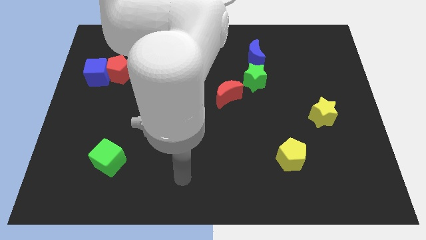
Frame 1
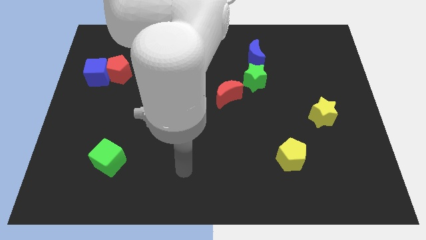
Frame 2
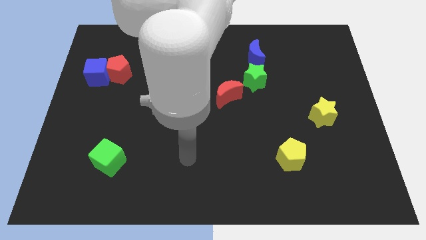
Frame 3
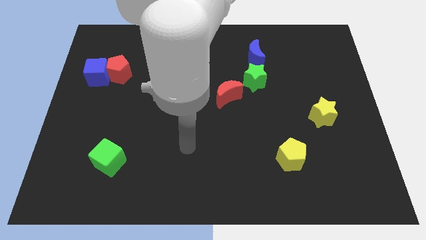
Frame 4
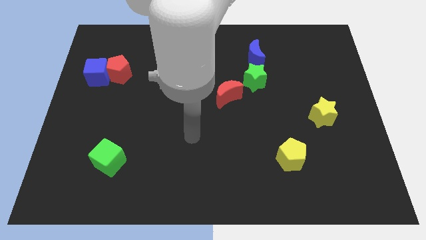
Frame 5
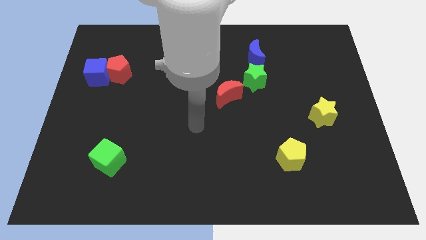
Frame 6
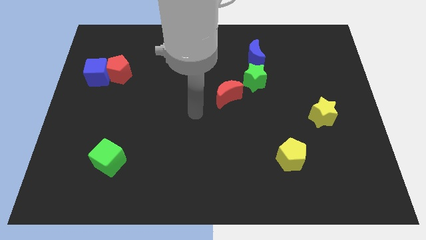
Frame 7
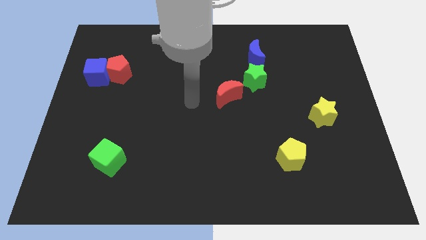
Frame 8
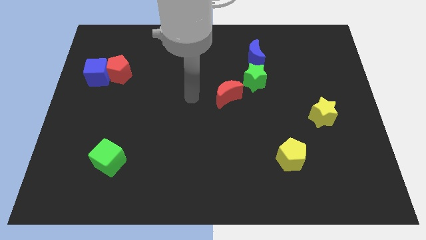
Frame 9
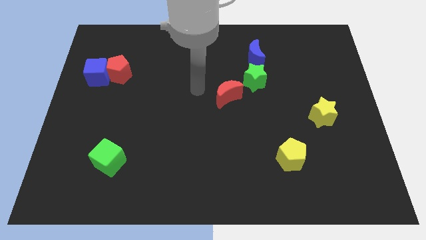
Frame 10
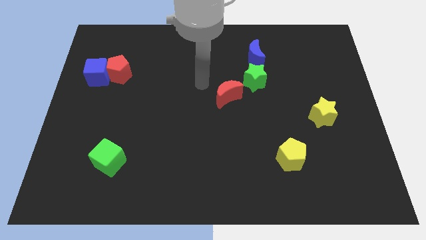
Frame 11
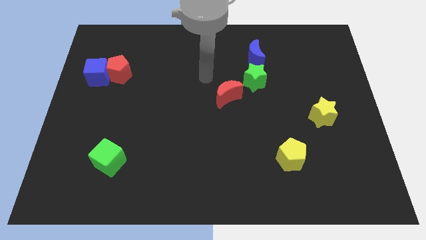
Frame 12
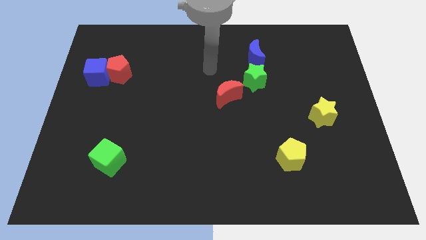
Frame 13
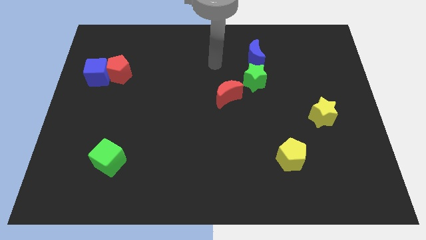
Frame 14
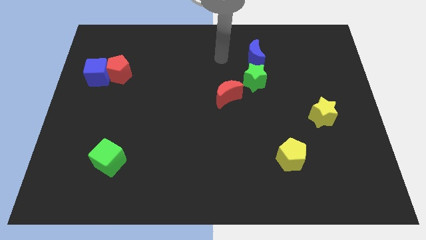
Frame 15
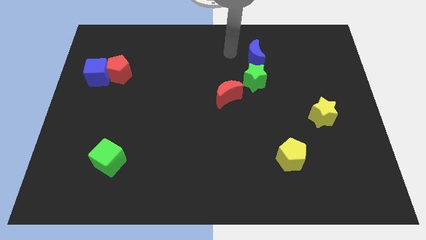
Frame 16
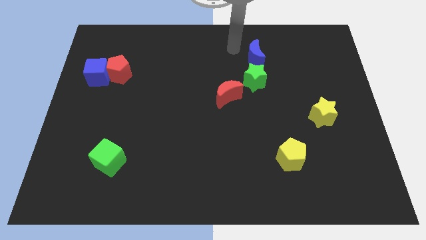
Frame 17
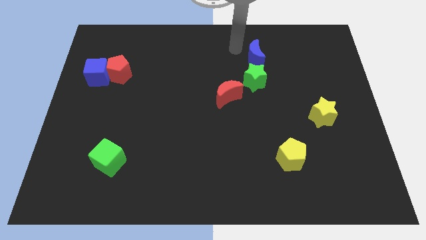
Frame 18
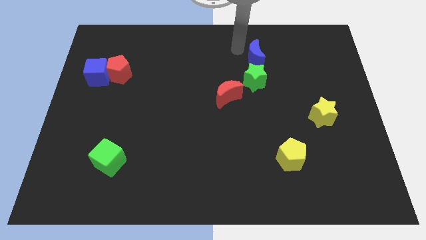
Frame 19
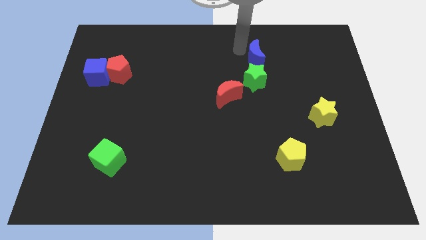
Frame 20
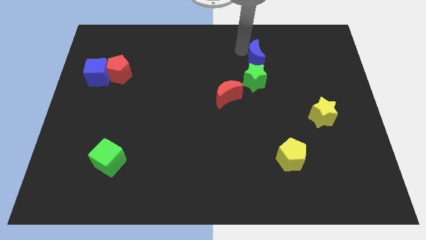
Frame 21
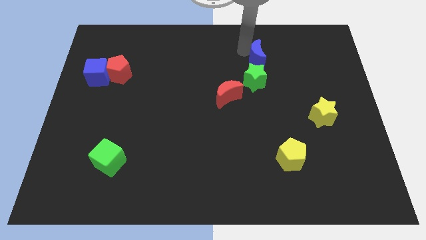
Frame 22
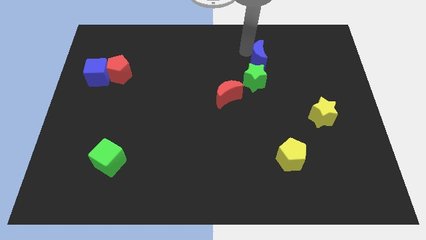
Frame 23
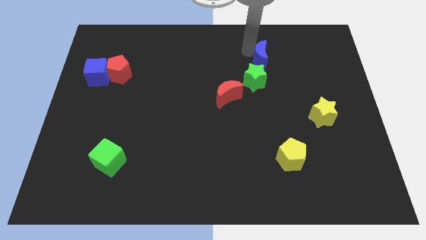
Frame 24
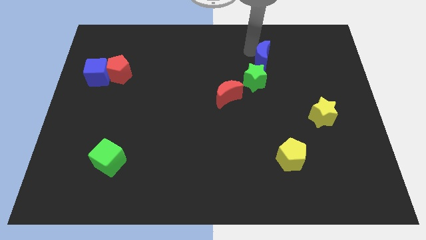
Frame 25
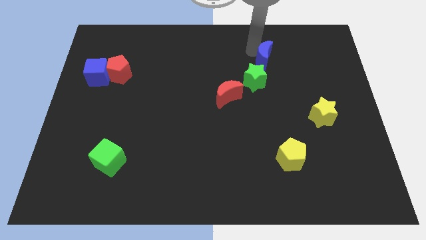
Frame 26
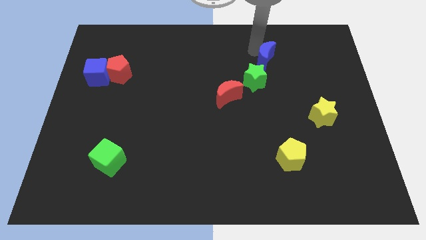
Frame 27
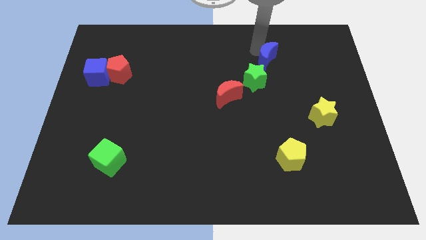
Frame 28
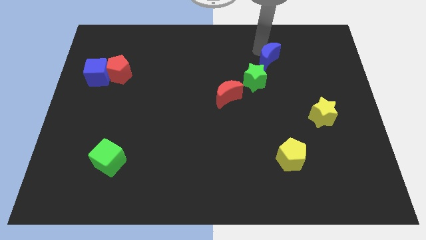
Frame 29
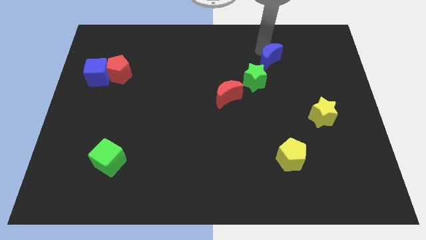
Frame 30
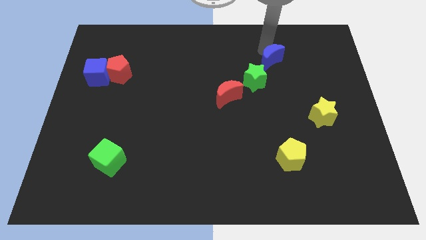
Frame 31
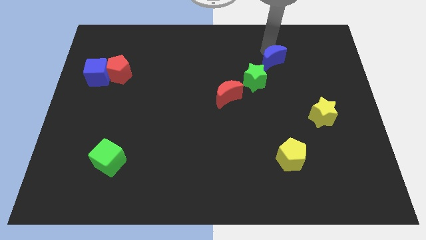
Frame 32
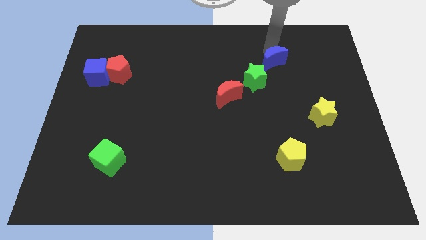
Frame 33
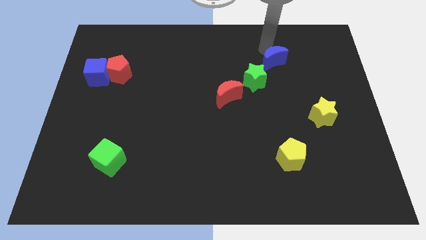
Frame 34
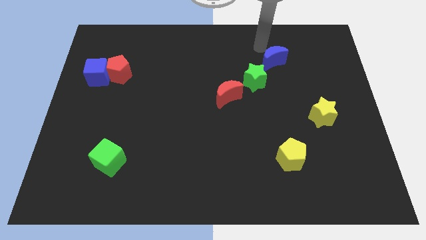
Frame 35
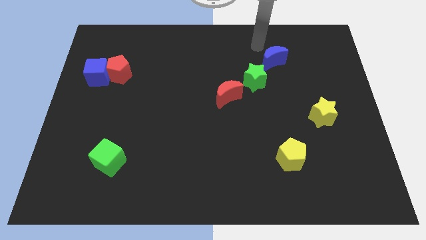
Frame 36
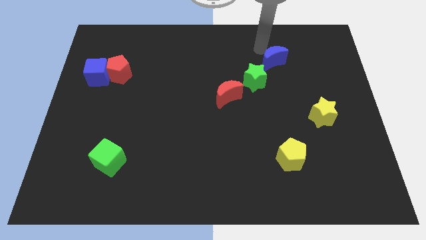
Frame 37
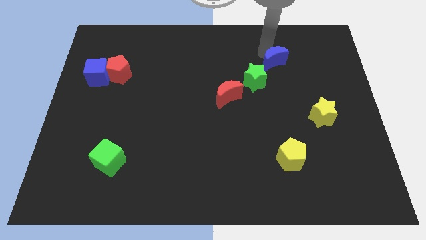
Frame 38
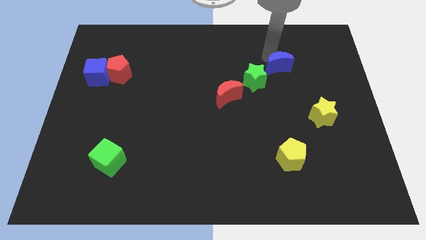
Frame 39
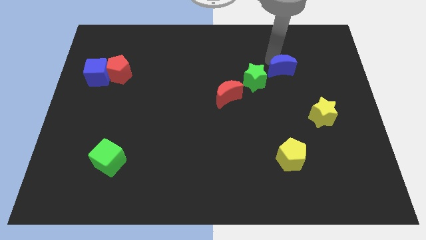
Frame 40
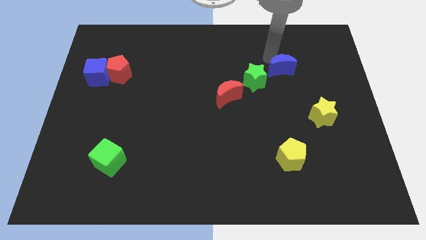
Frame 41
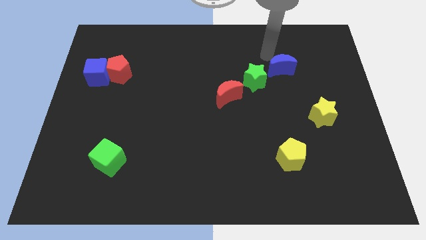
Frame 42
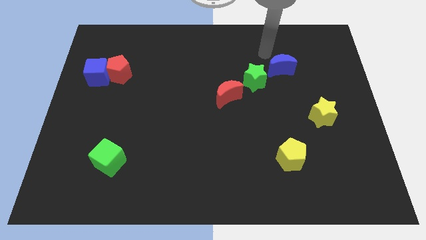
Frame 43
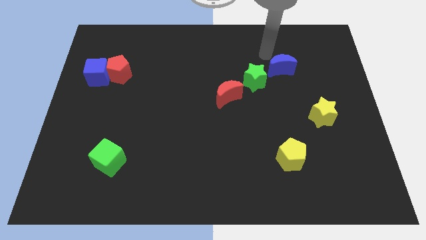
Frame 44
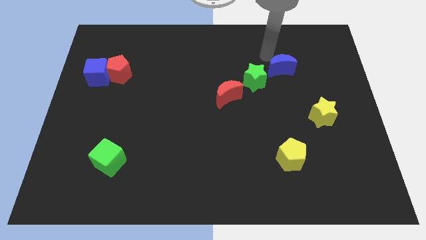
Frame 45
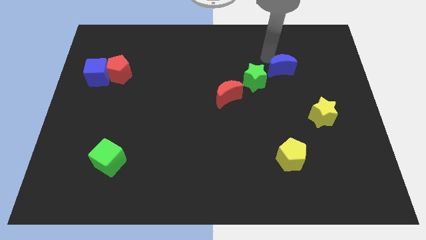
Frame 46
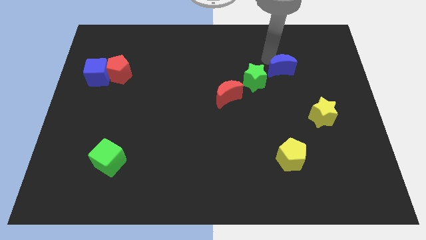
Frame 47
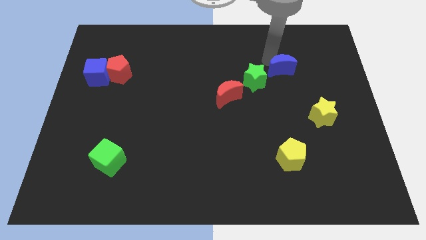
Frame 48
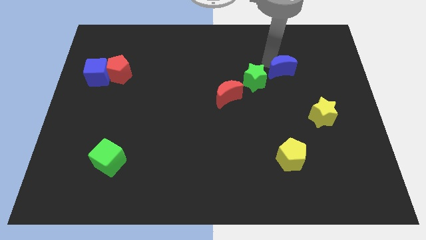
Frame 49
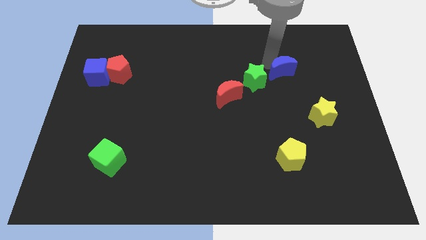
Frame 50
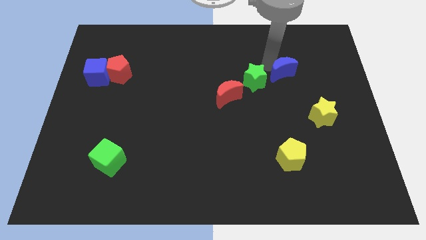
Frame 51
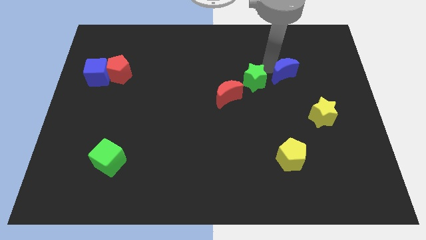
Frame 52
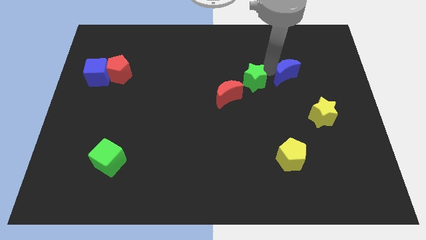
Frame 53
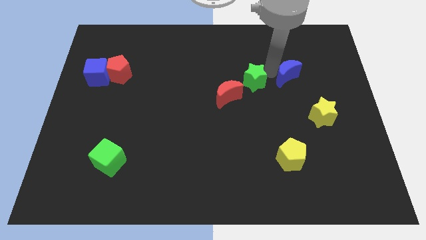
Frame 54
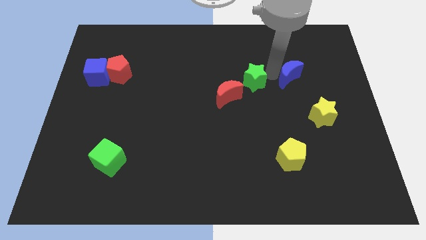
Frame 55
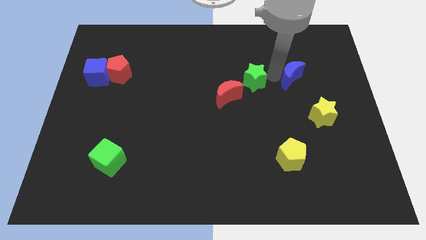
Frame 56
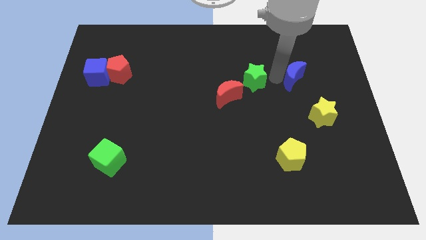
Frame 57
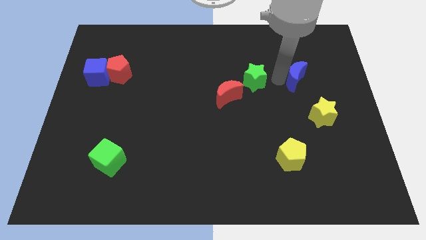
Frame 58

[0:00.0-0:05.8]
slide the blue moon to the top of the yellow star

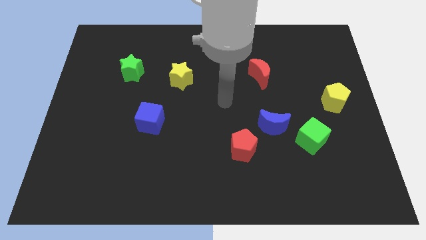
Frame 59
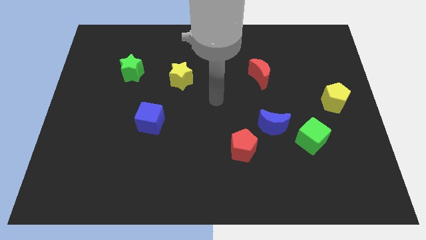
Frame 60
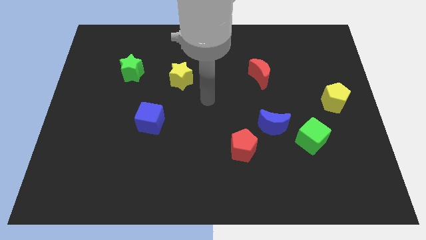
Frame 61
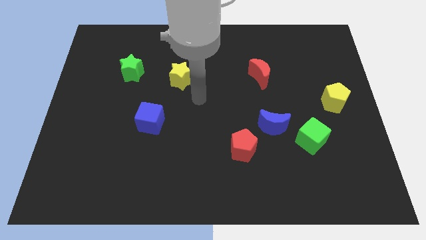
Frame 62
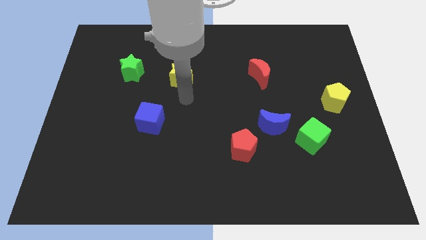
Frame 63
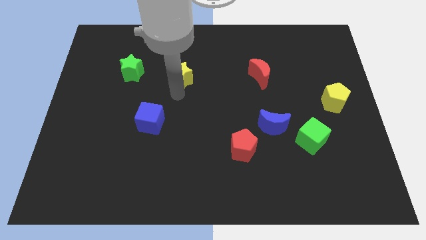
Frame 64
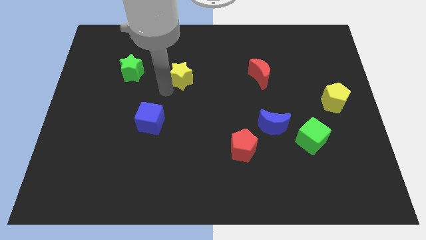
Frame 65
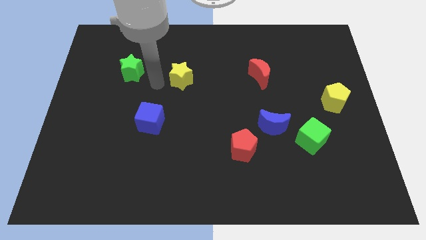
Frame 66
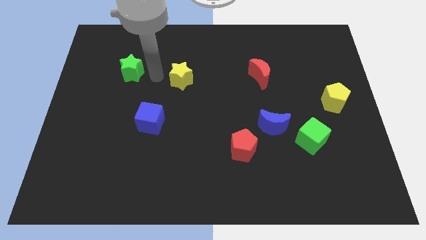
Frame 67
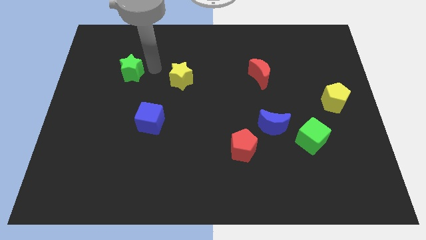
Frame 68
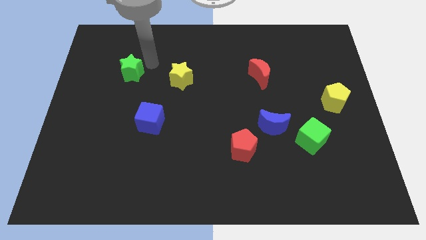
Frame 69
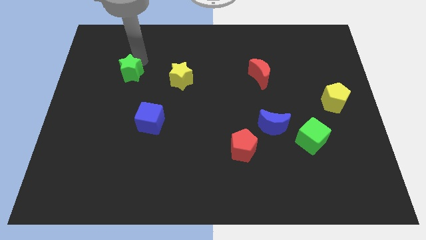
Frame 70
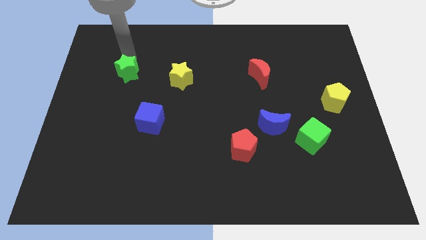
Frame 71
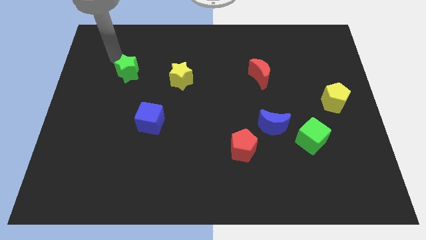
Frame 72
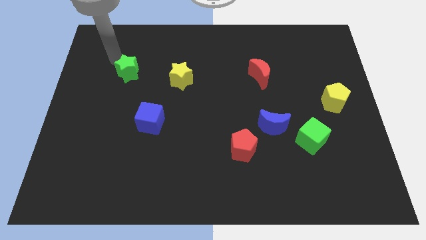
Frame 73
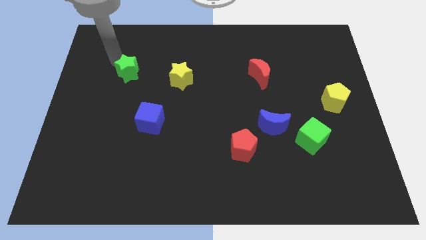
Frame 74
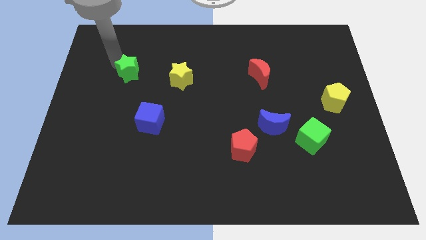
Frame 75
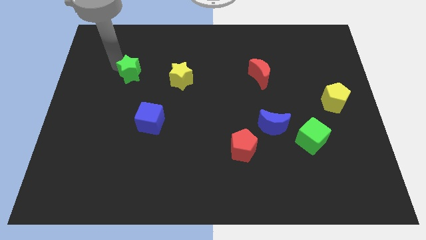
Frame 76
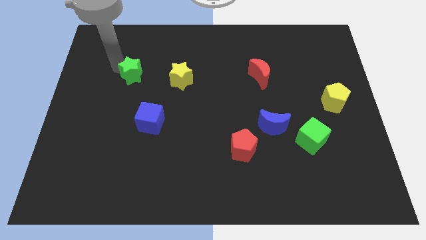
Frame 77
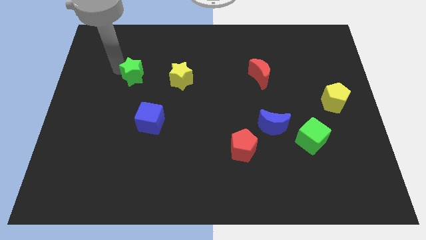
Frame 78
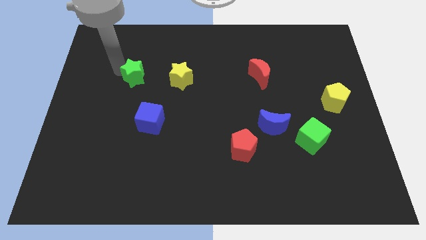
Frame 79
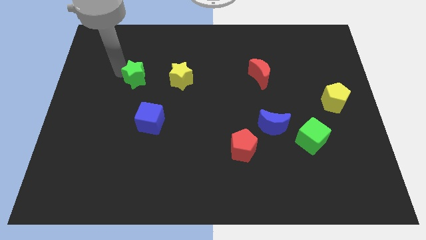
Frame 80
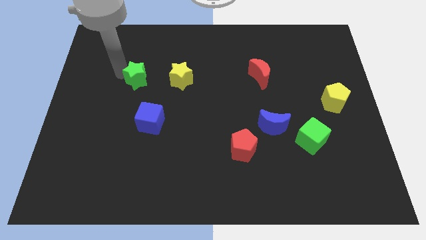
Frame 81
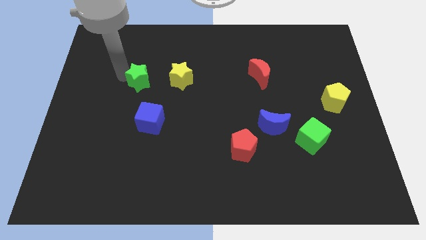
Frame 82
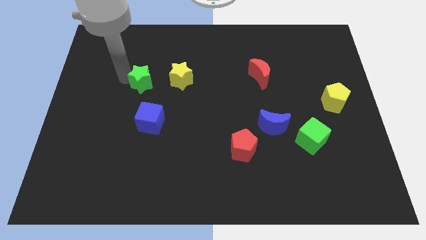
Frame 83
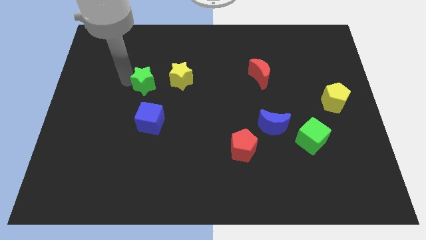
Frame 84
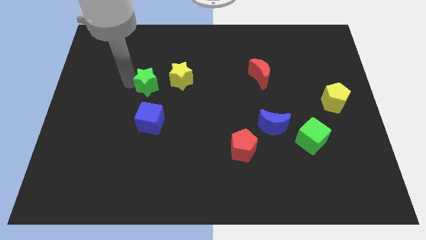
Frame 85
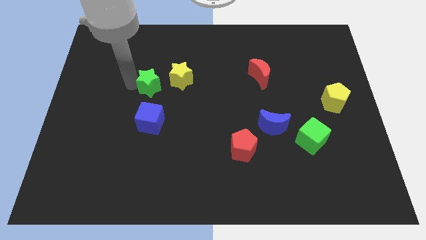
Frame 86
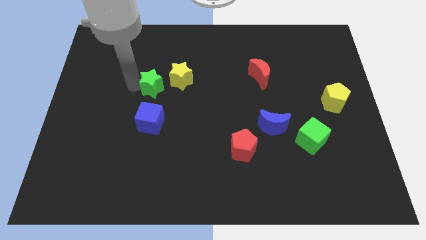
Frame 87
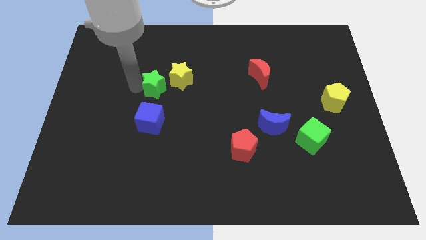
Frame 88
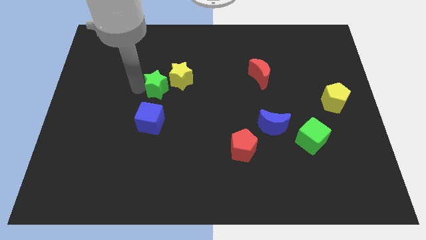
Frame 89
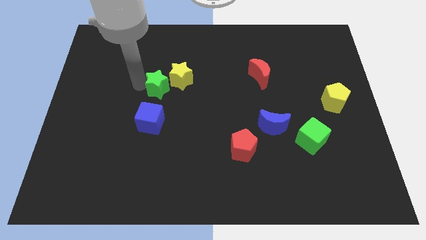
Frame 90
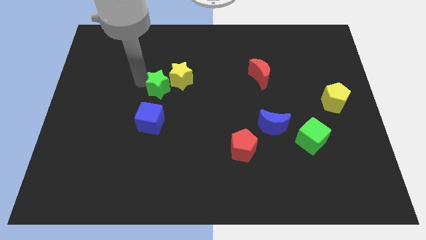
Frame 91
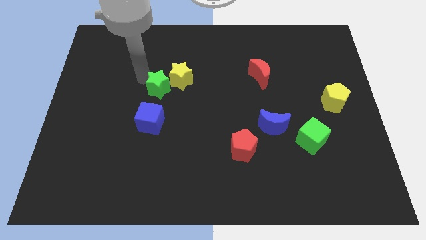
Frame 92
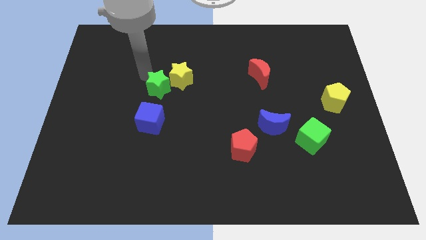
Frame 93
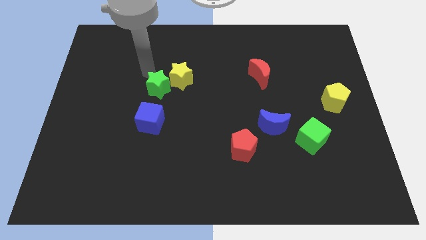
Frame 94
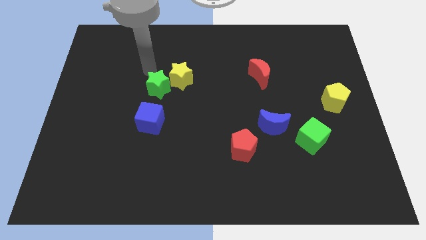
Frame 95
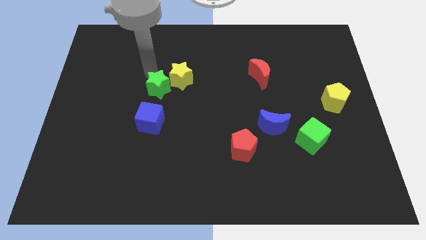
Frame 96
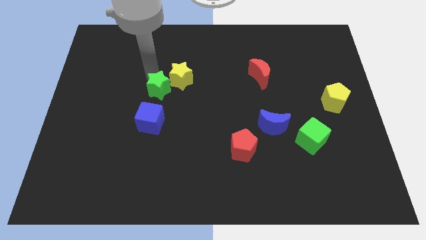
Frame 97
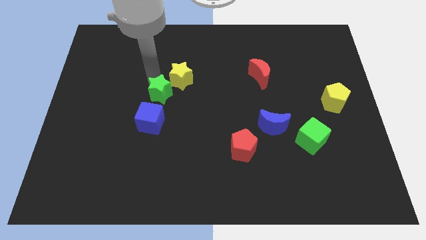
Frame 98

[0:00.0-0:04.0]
push the green star to the bottom of the yellow star
